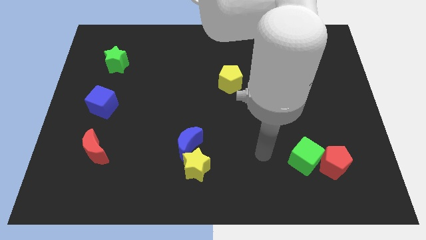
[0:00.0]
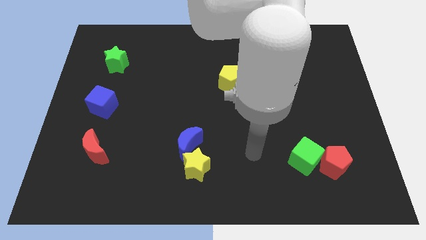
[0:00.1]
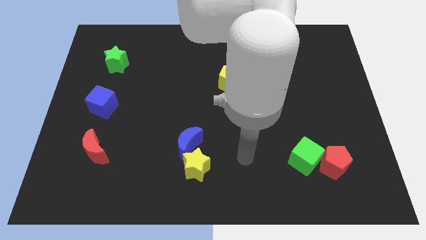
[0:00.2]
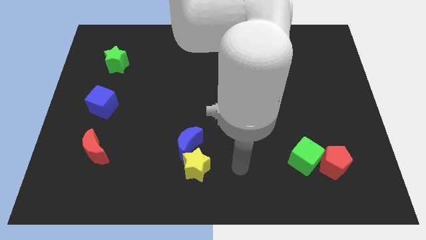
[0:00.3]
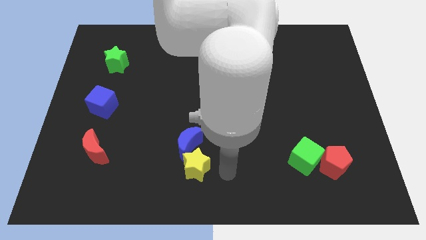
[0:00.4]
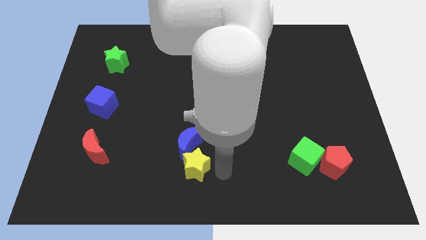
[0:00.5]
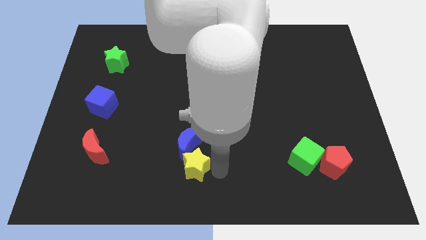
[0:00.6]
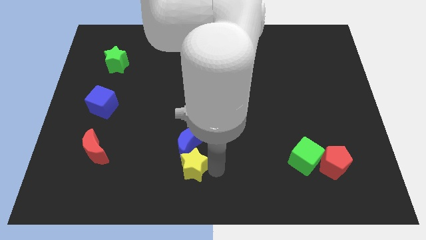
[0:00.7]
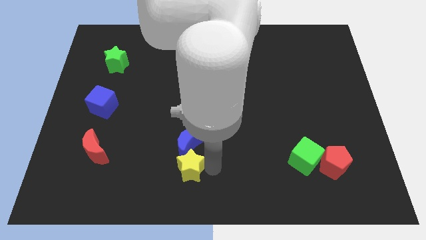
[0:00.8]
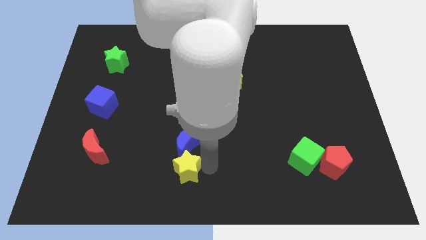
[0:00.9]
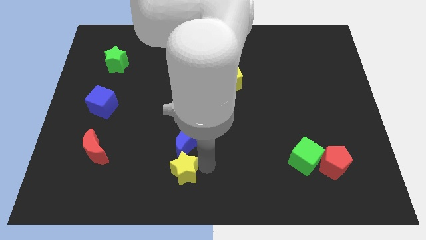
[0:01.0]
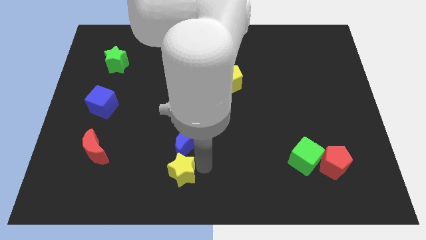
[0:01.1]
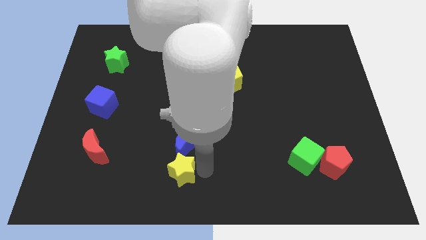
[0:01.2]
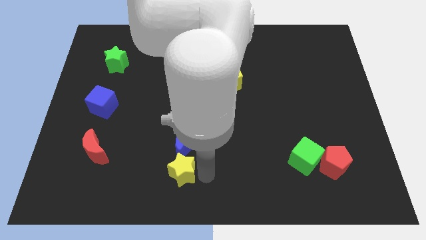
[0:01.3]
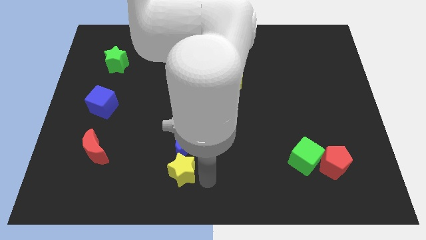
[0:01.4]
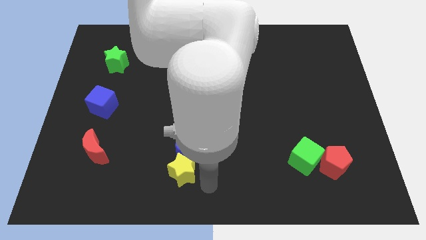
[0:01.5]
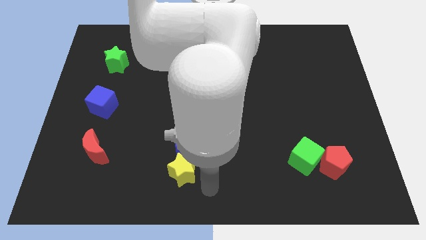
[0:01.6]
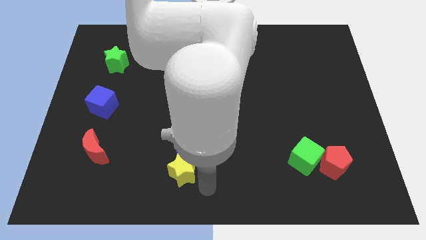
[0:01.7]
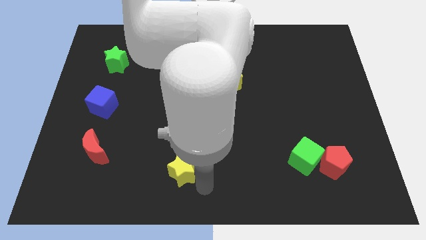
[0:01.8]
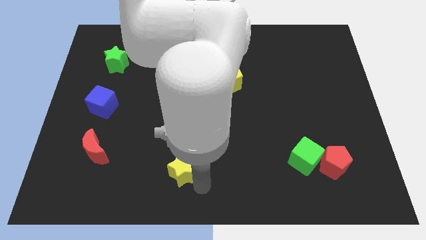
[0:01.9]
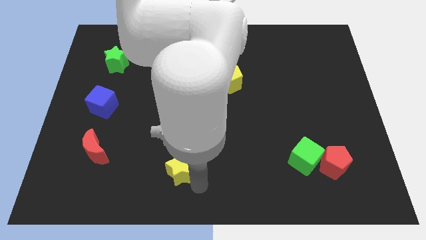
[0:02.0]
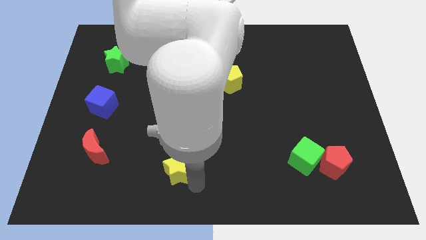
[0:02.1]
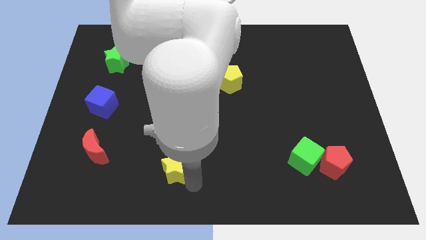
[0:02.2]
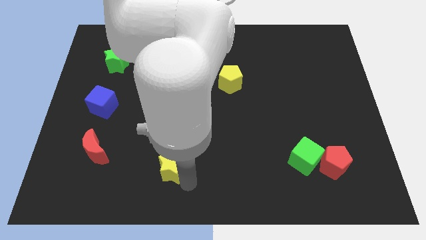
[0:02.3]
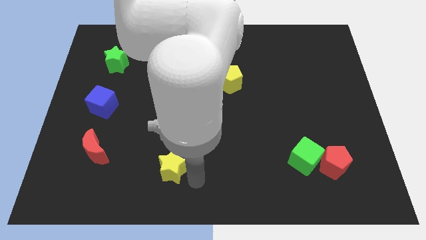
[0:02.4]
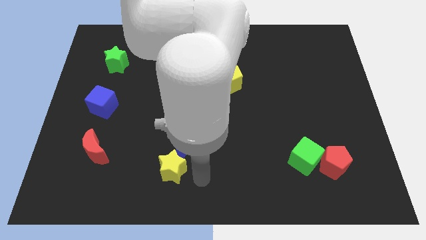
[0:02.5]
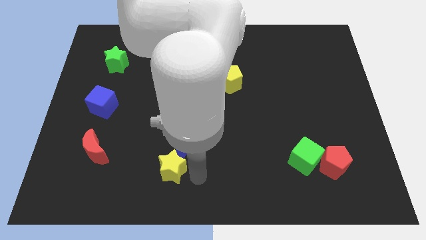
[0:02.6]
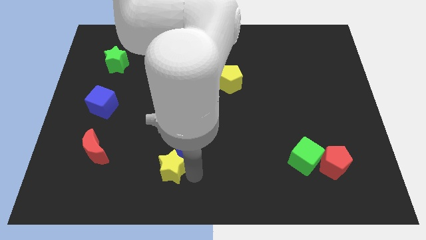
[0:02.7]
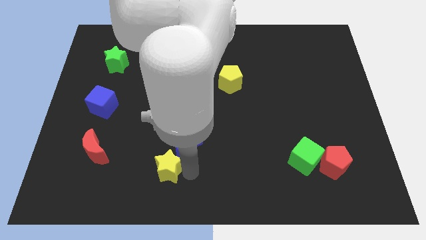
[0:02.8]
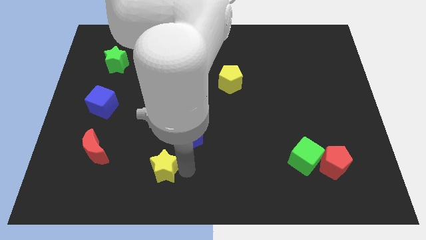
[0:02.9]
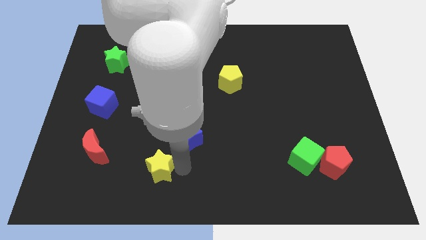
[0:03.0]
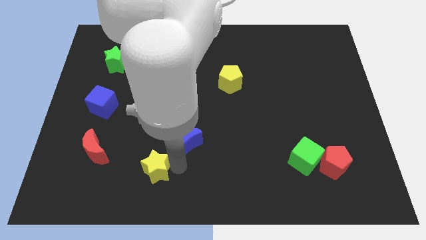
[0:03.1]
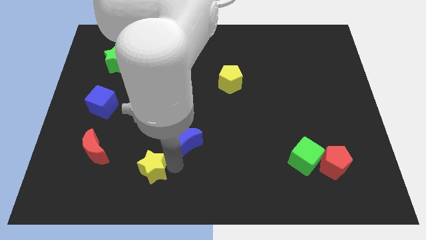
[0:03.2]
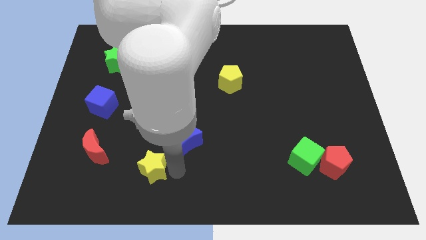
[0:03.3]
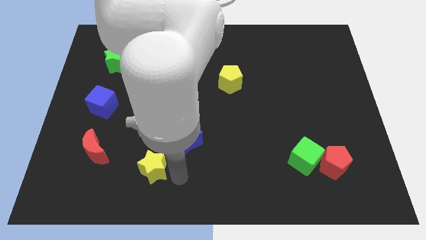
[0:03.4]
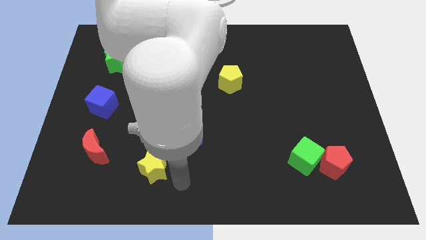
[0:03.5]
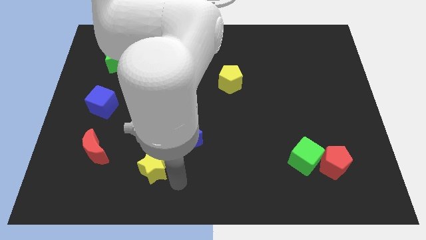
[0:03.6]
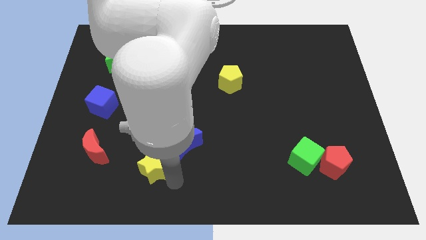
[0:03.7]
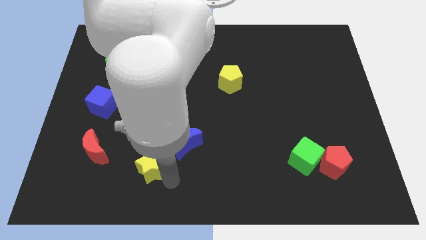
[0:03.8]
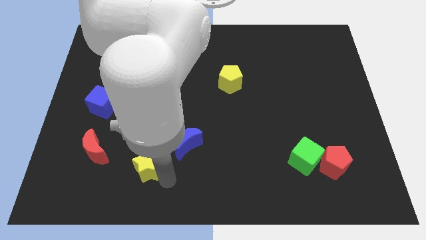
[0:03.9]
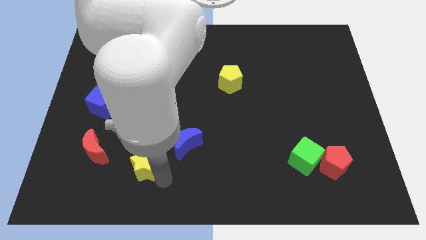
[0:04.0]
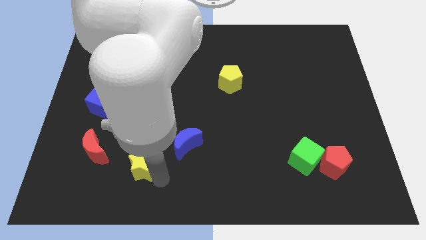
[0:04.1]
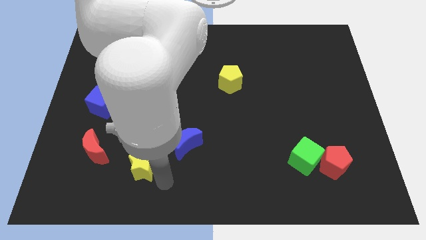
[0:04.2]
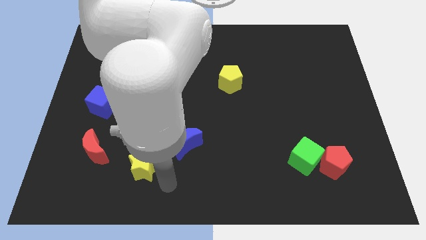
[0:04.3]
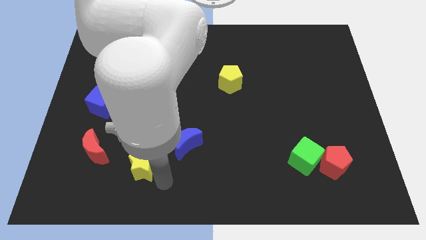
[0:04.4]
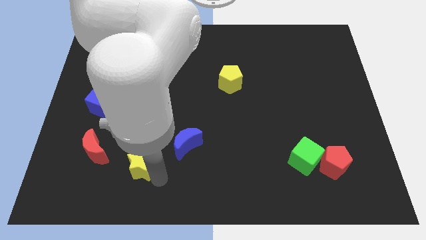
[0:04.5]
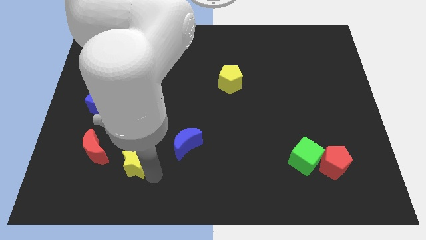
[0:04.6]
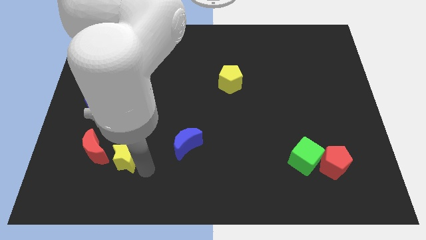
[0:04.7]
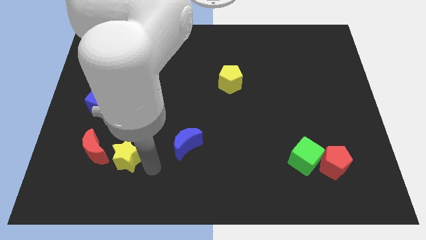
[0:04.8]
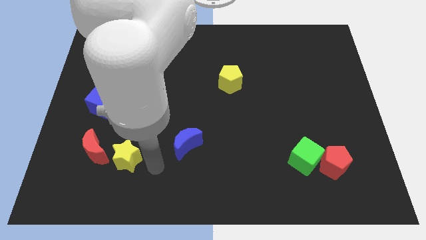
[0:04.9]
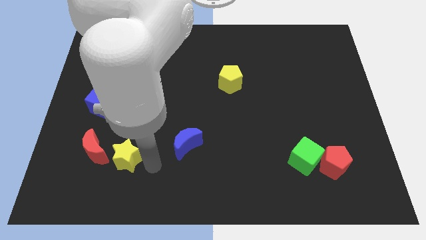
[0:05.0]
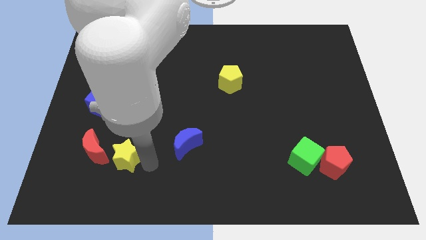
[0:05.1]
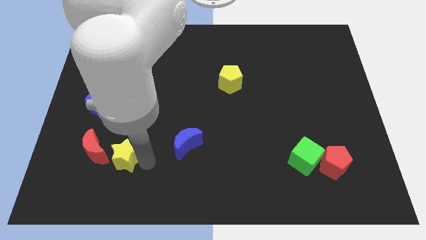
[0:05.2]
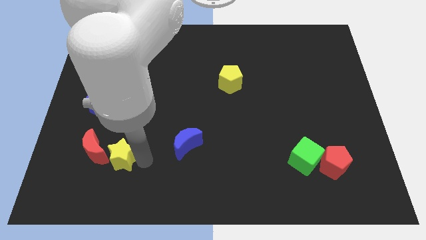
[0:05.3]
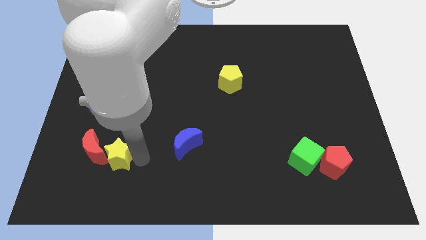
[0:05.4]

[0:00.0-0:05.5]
slide the yellow star to the red moon
